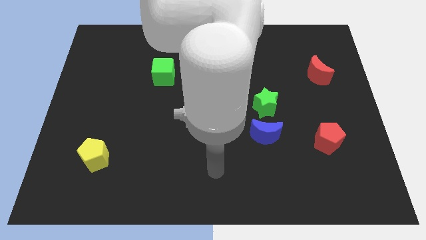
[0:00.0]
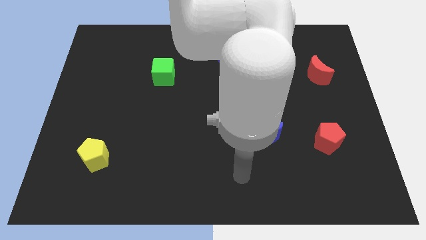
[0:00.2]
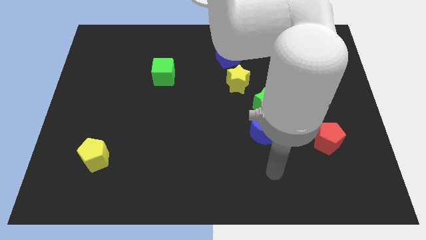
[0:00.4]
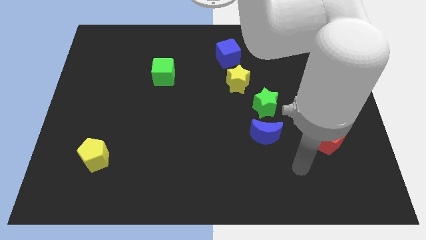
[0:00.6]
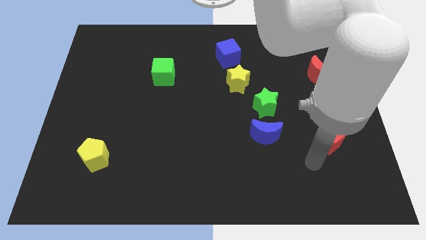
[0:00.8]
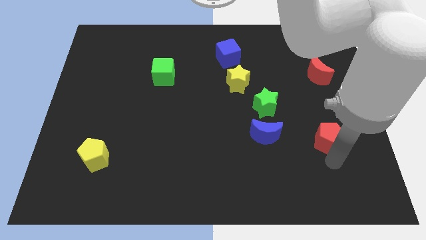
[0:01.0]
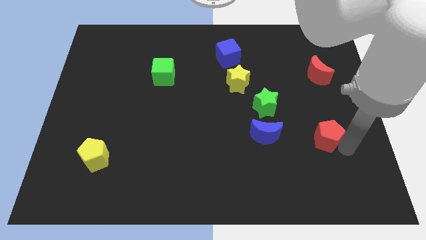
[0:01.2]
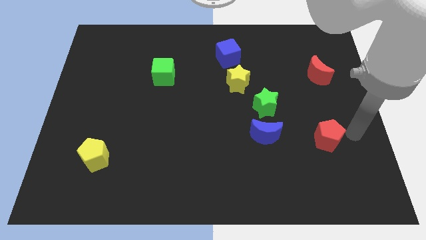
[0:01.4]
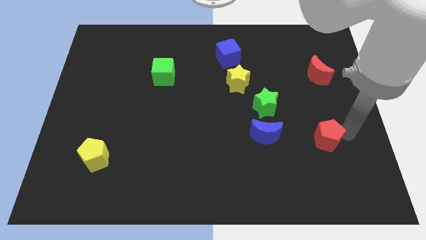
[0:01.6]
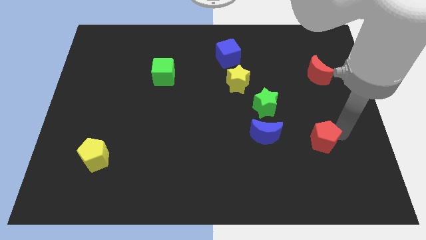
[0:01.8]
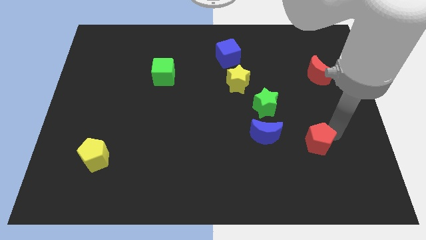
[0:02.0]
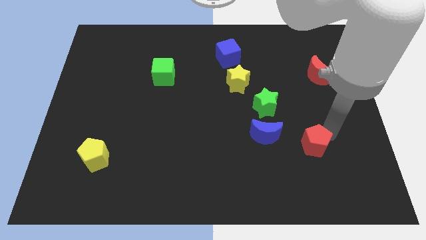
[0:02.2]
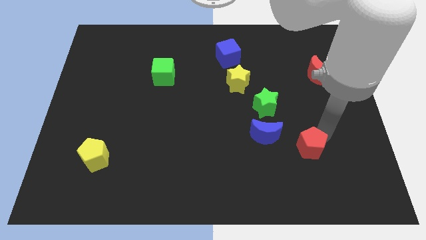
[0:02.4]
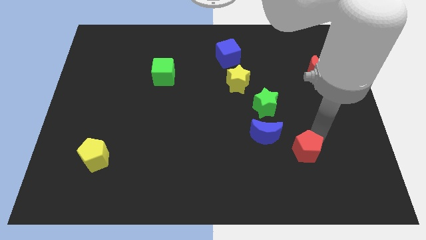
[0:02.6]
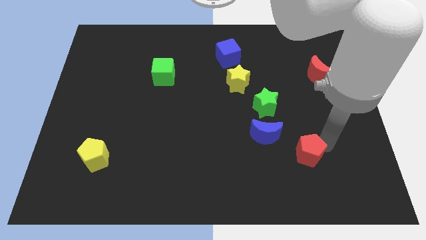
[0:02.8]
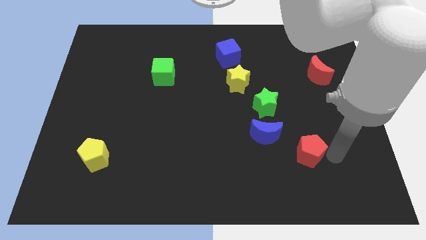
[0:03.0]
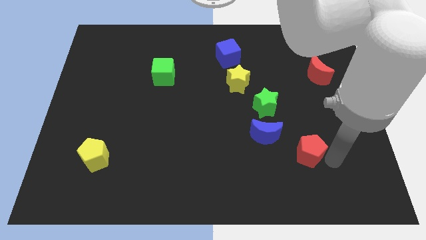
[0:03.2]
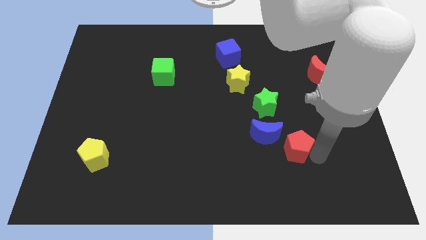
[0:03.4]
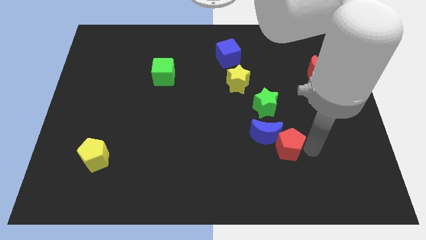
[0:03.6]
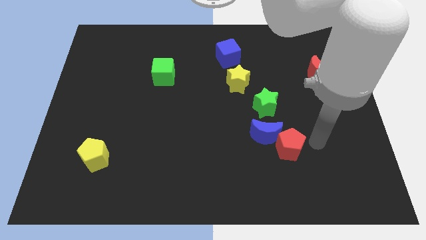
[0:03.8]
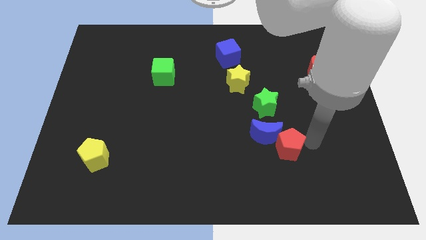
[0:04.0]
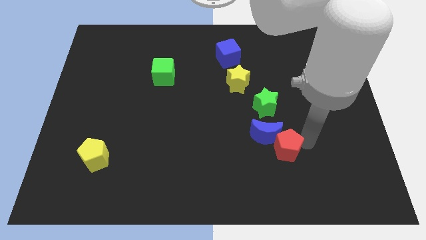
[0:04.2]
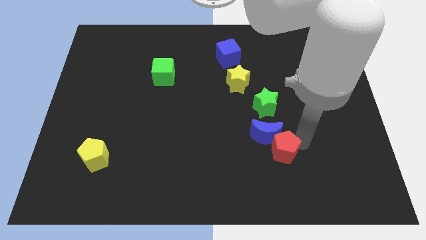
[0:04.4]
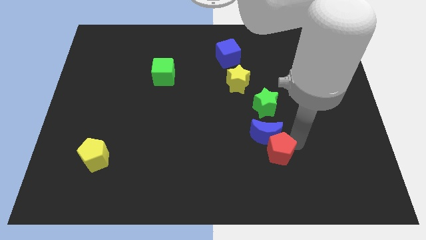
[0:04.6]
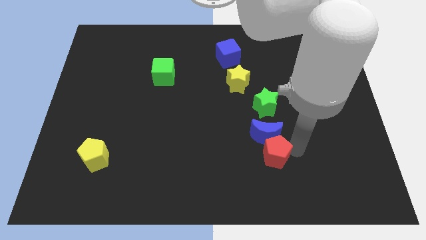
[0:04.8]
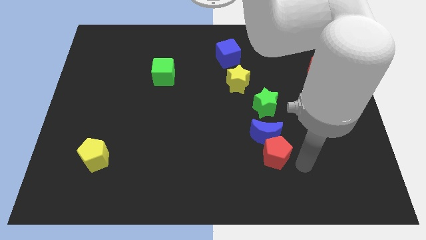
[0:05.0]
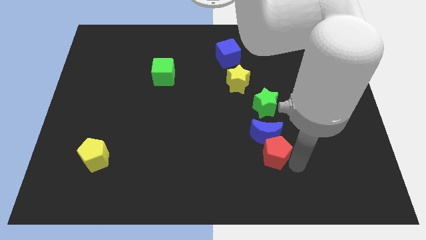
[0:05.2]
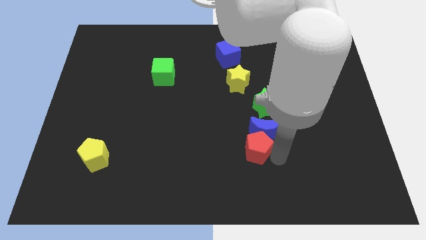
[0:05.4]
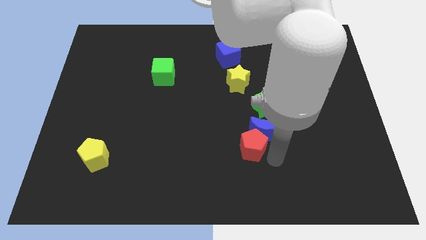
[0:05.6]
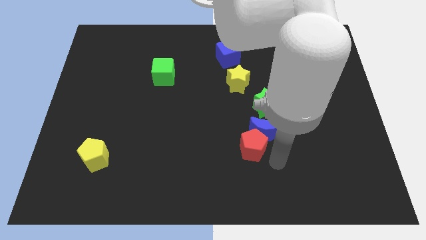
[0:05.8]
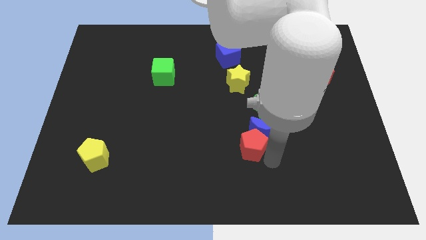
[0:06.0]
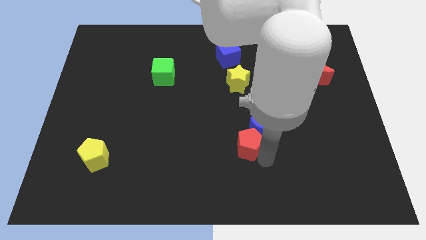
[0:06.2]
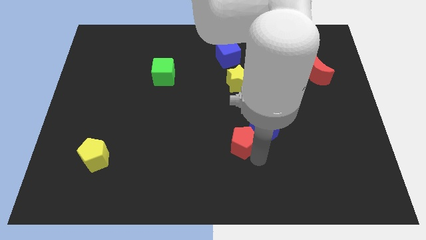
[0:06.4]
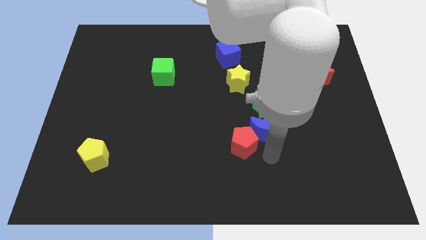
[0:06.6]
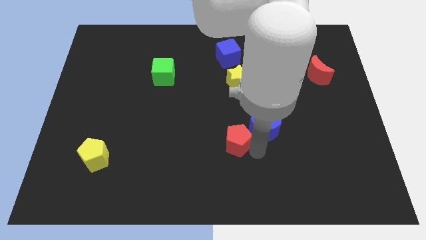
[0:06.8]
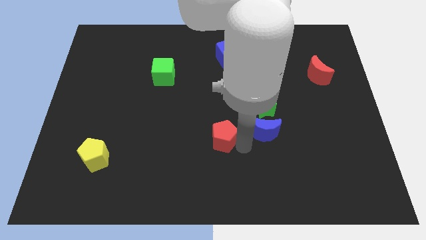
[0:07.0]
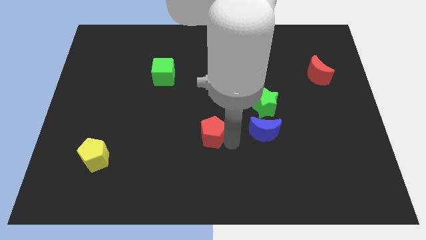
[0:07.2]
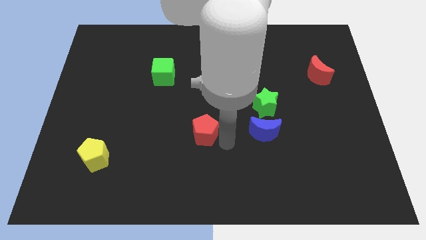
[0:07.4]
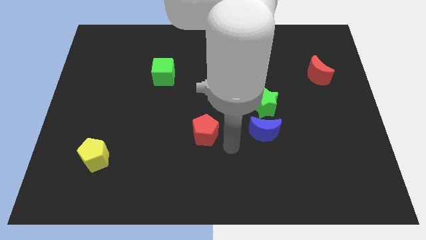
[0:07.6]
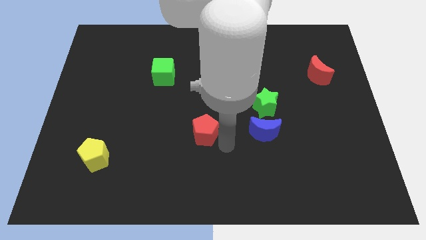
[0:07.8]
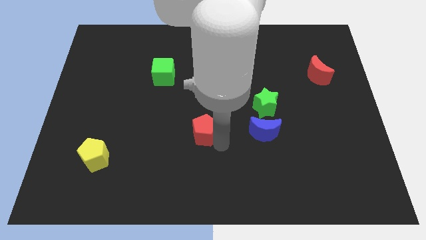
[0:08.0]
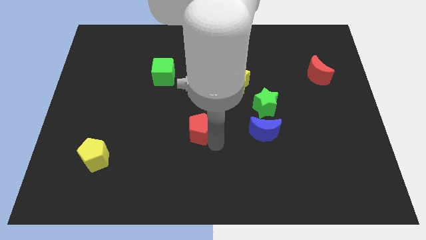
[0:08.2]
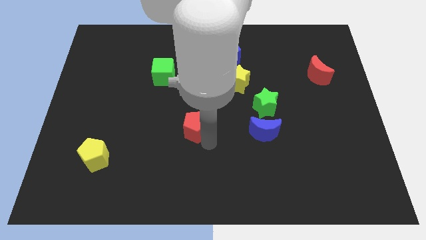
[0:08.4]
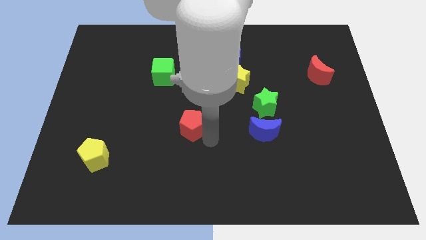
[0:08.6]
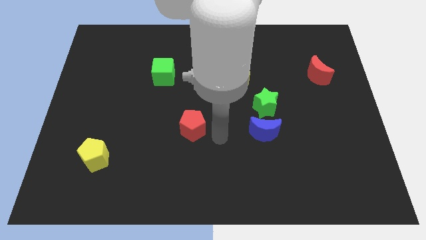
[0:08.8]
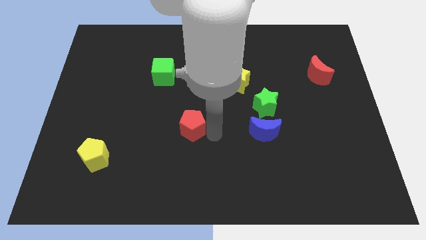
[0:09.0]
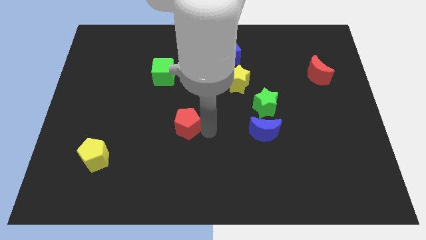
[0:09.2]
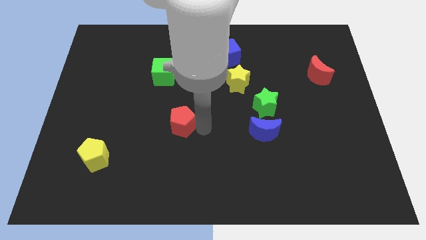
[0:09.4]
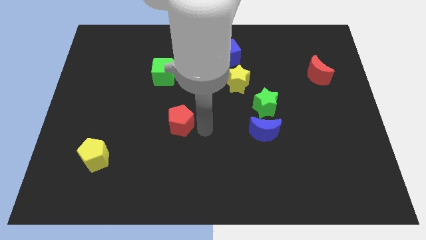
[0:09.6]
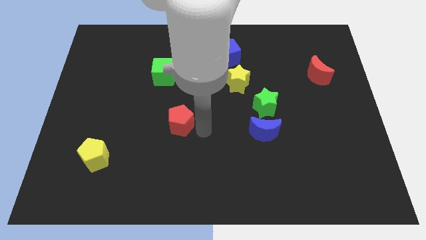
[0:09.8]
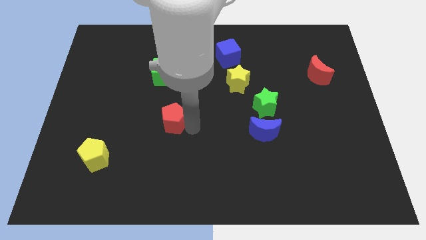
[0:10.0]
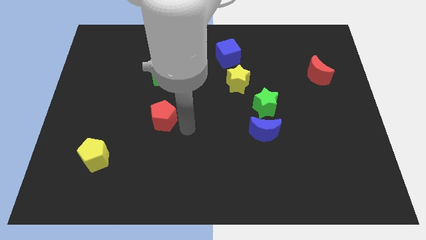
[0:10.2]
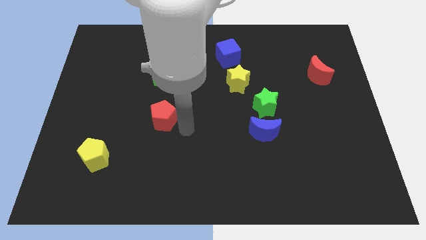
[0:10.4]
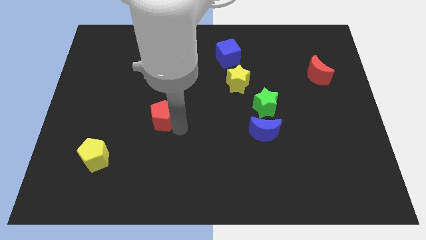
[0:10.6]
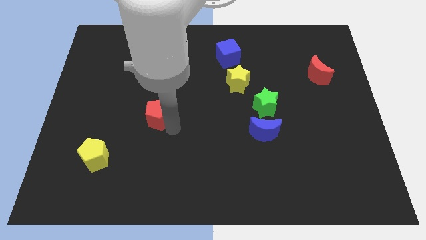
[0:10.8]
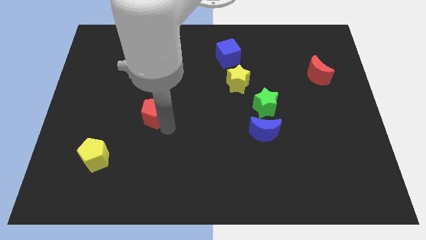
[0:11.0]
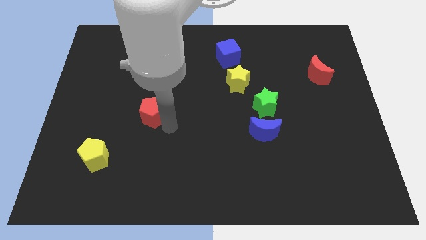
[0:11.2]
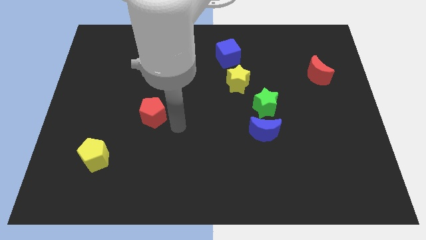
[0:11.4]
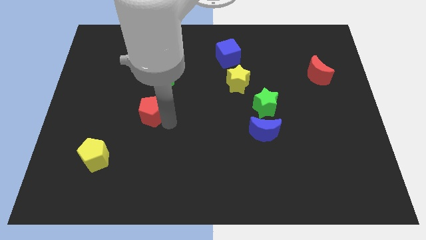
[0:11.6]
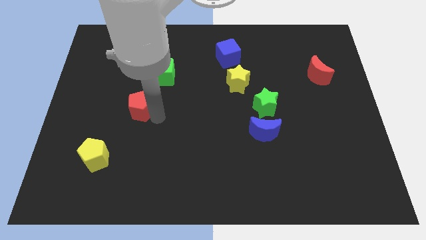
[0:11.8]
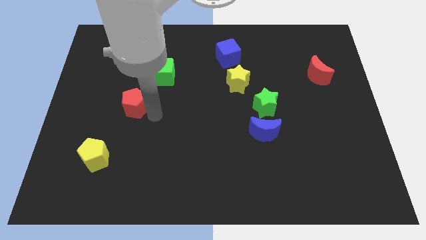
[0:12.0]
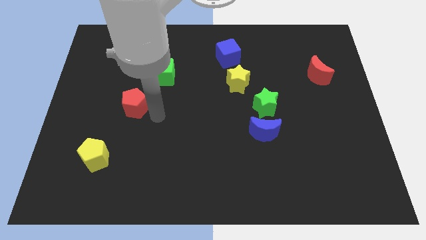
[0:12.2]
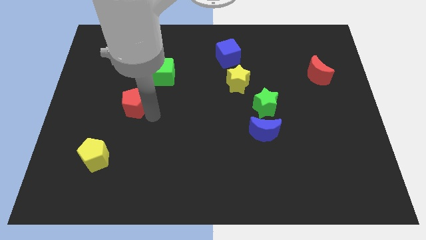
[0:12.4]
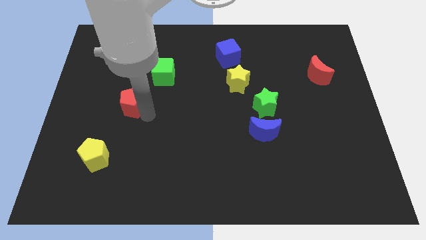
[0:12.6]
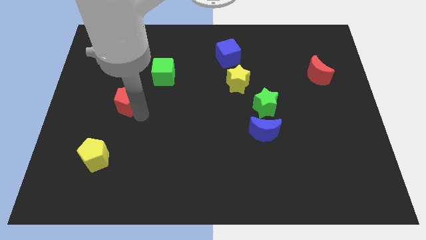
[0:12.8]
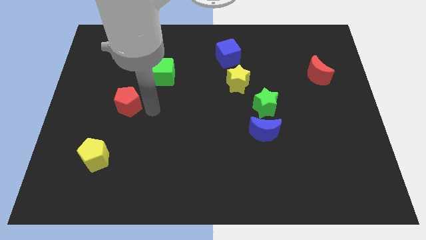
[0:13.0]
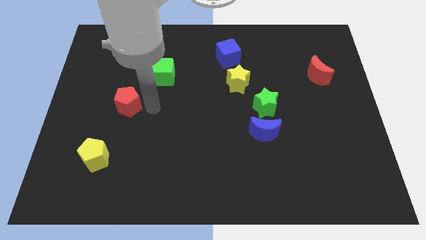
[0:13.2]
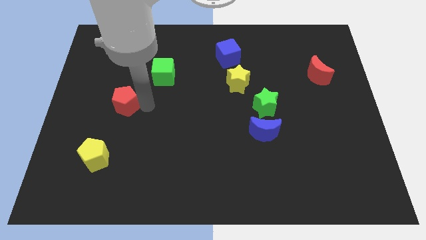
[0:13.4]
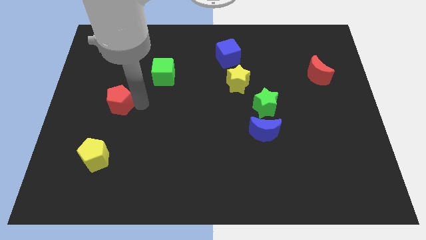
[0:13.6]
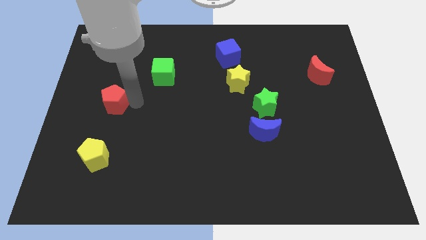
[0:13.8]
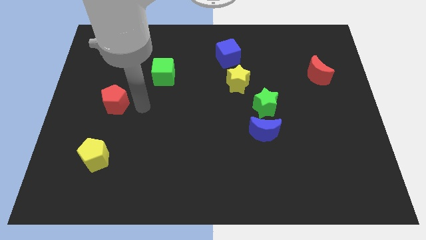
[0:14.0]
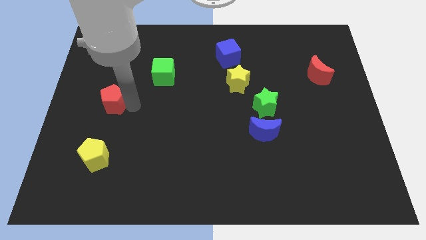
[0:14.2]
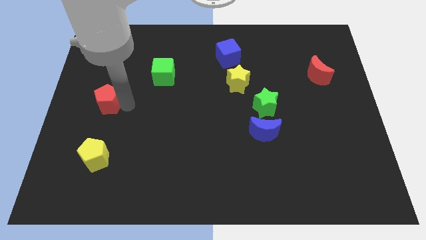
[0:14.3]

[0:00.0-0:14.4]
put the red pentagon to the left side
